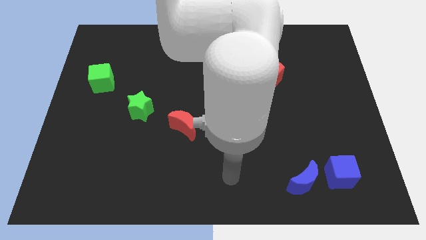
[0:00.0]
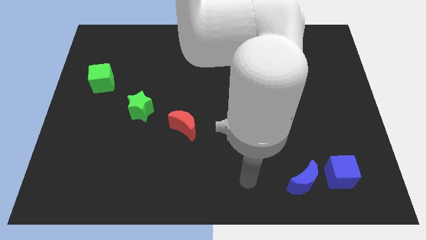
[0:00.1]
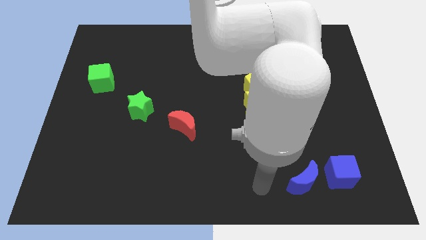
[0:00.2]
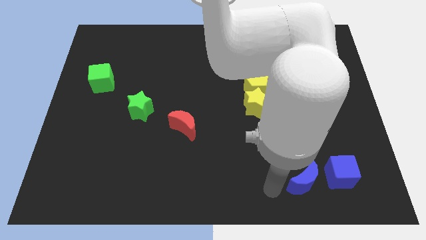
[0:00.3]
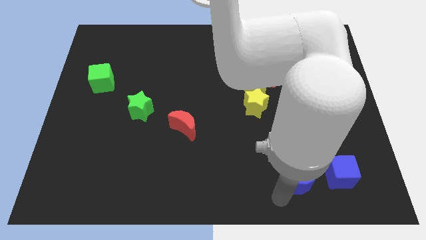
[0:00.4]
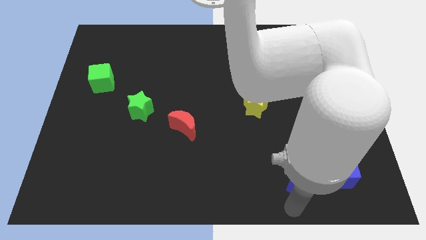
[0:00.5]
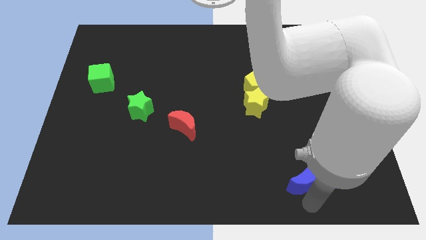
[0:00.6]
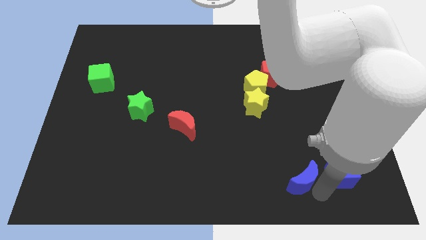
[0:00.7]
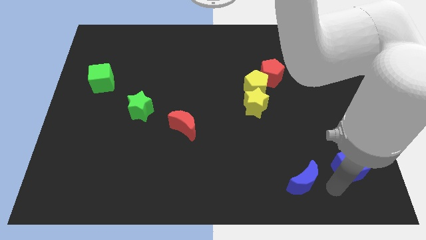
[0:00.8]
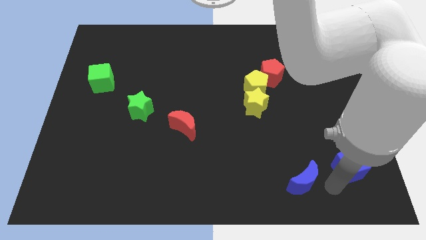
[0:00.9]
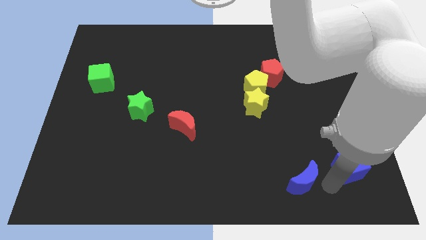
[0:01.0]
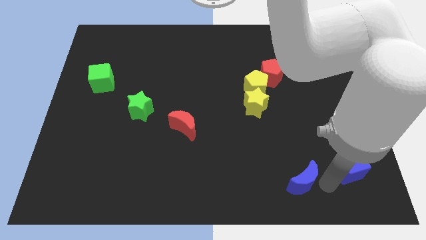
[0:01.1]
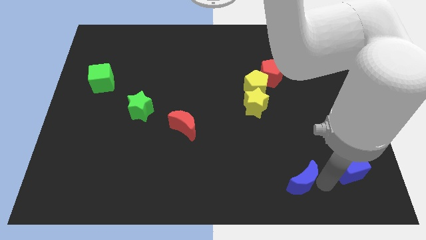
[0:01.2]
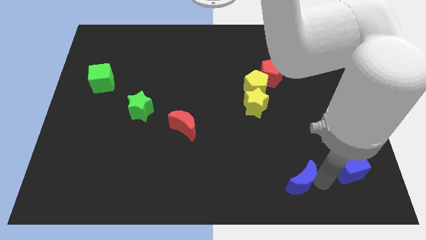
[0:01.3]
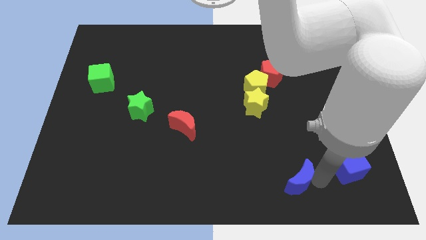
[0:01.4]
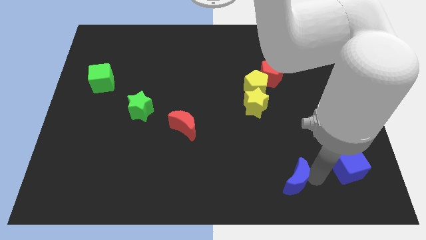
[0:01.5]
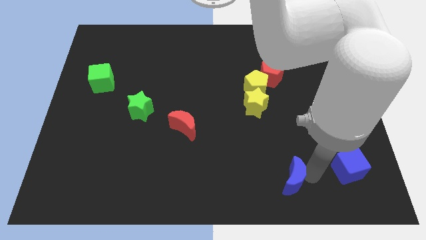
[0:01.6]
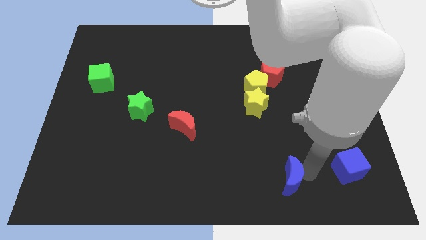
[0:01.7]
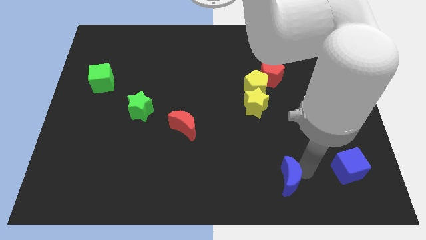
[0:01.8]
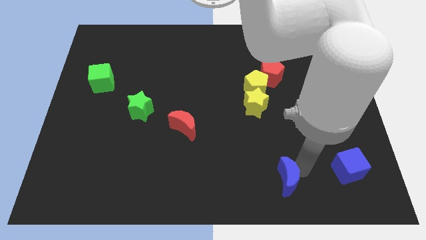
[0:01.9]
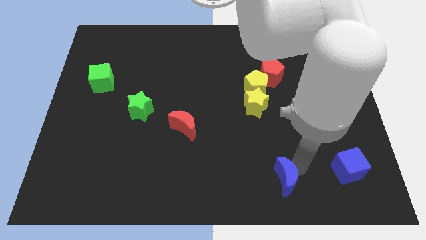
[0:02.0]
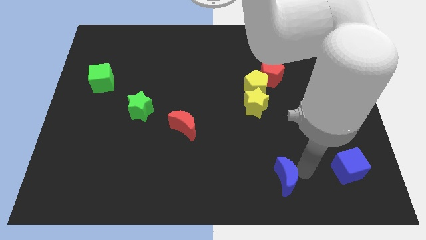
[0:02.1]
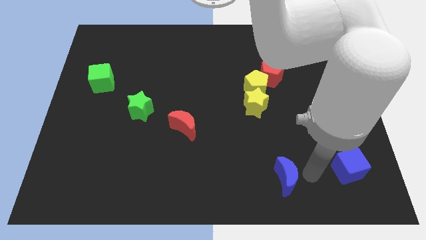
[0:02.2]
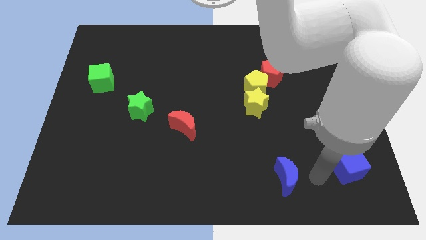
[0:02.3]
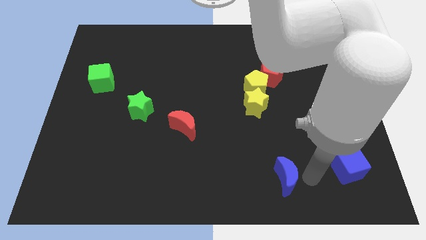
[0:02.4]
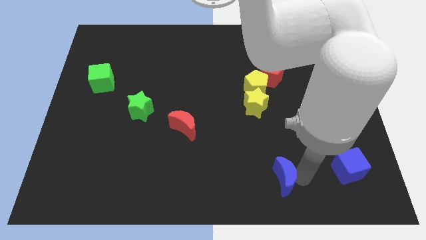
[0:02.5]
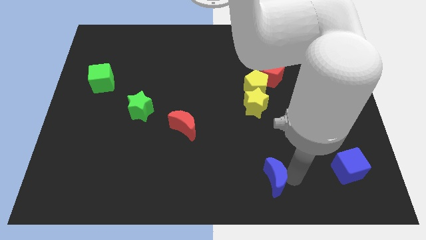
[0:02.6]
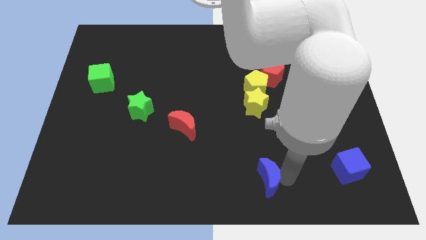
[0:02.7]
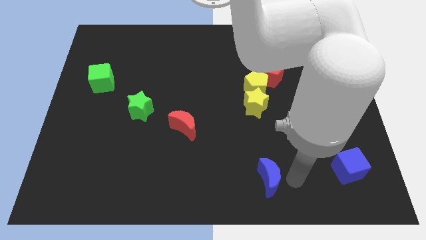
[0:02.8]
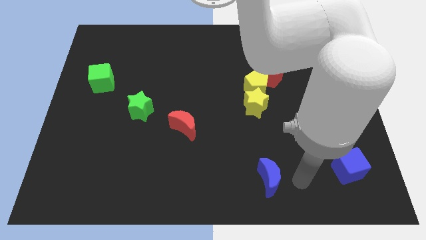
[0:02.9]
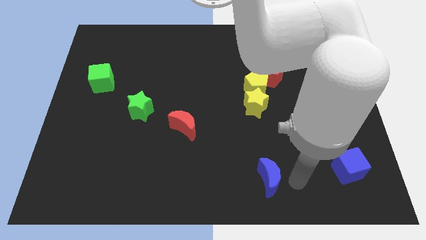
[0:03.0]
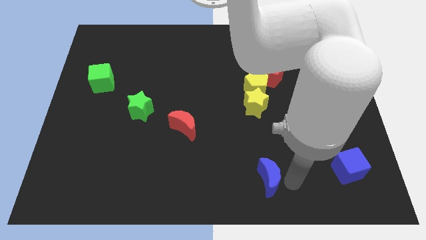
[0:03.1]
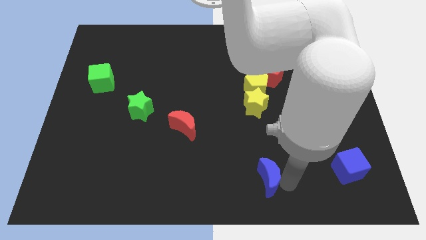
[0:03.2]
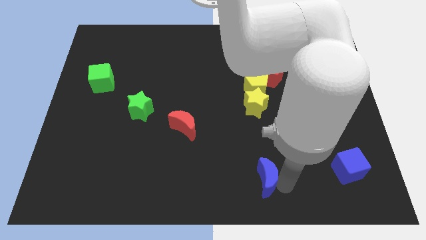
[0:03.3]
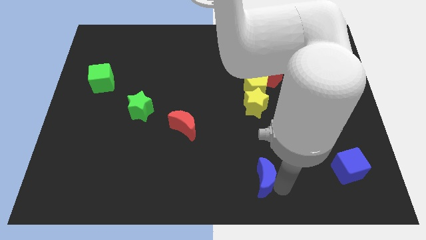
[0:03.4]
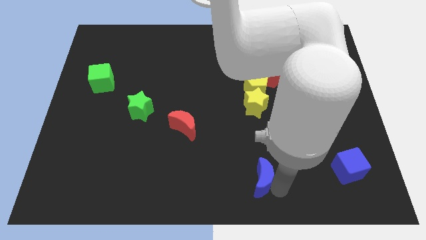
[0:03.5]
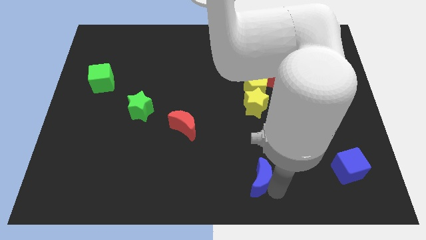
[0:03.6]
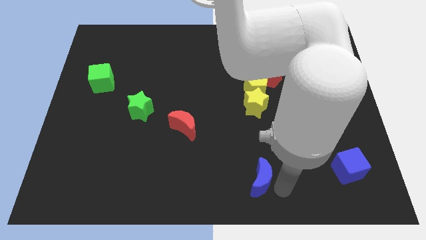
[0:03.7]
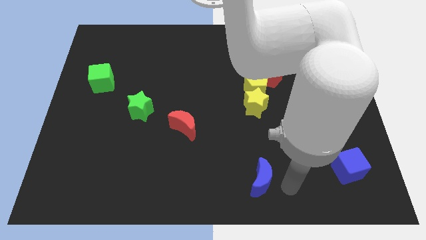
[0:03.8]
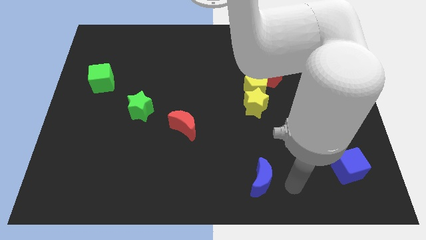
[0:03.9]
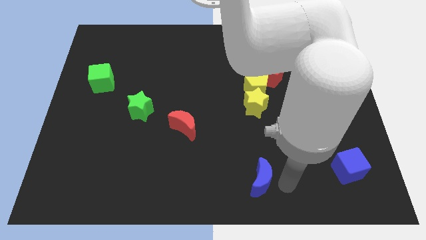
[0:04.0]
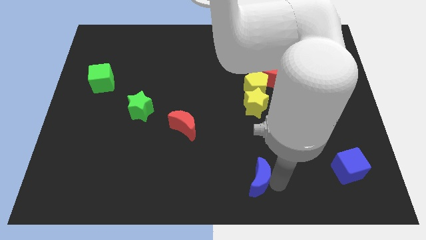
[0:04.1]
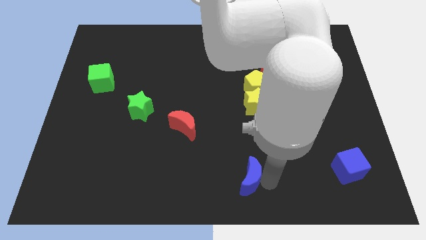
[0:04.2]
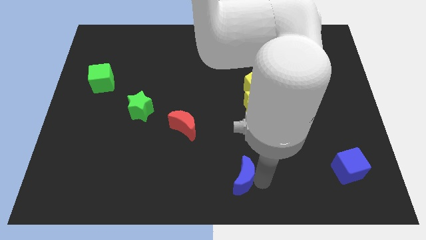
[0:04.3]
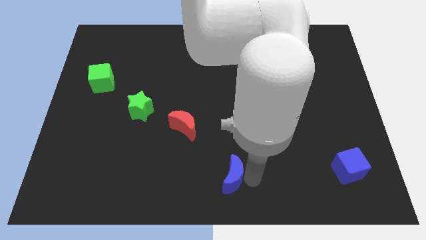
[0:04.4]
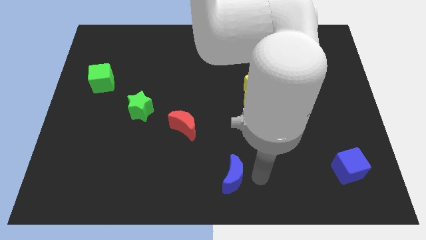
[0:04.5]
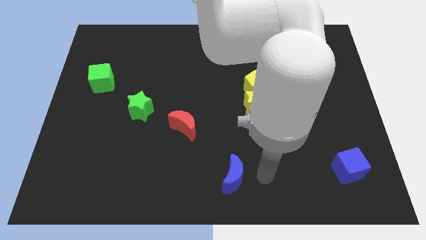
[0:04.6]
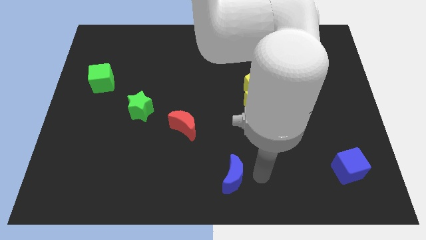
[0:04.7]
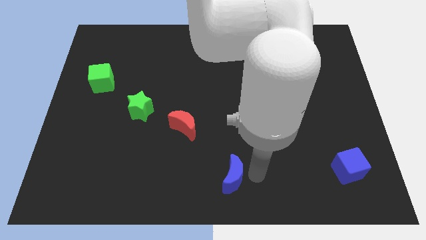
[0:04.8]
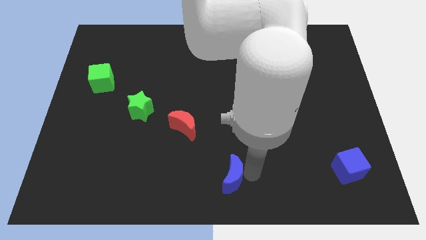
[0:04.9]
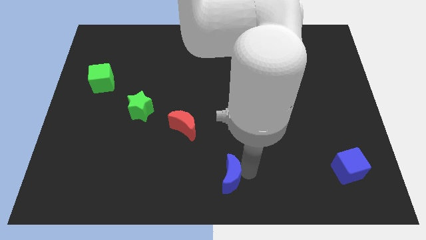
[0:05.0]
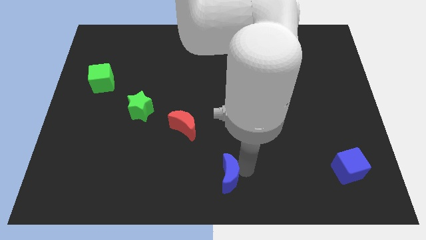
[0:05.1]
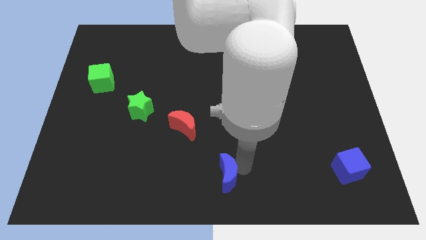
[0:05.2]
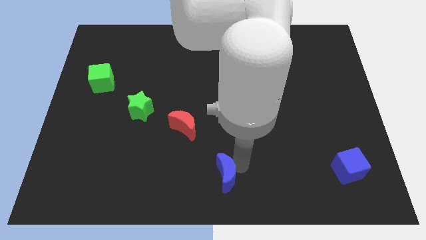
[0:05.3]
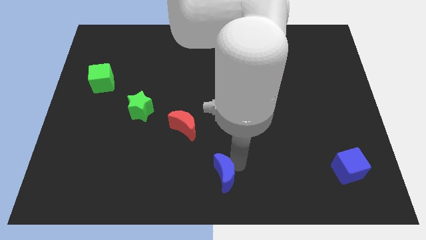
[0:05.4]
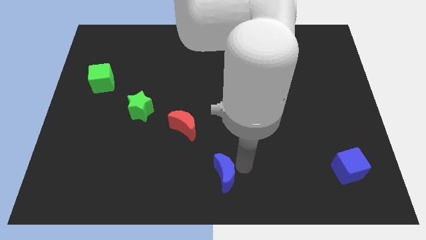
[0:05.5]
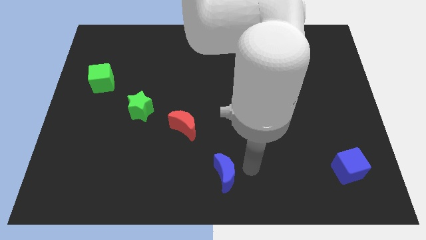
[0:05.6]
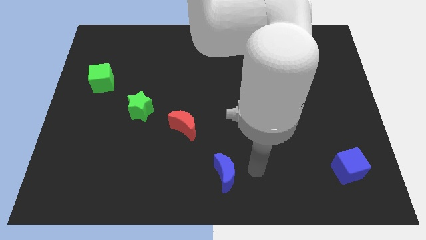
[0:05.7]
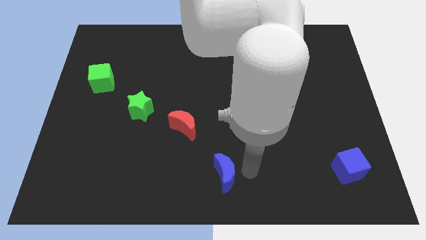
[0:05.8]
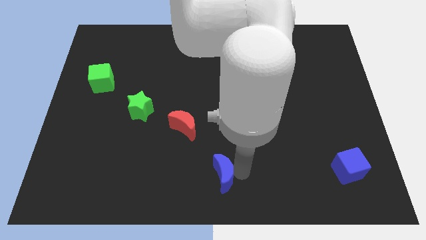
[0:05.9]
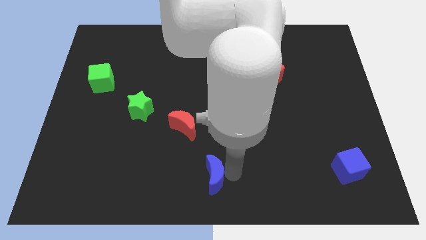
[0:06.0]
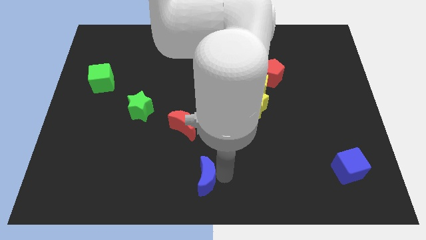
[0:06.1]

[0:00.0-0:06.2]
slide the blue moon to the left

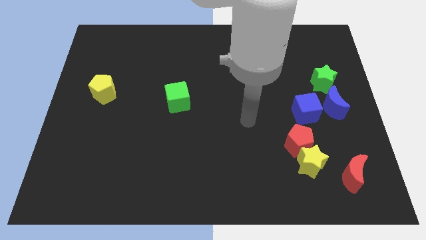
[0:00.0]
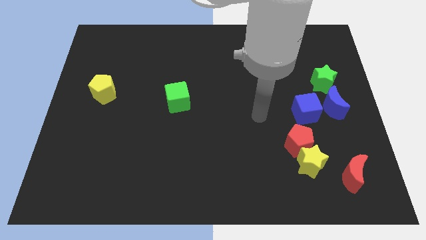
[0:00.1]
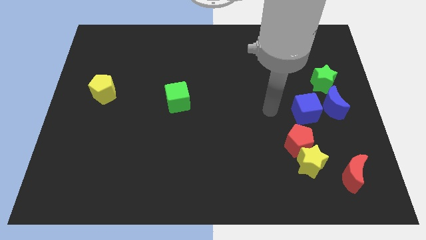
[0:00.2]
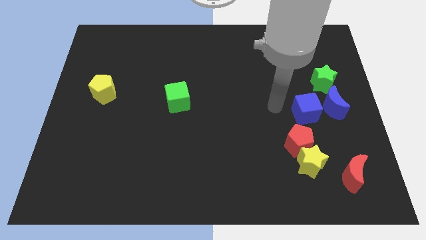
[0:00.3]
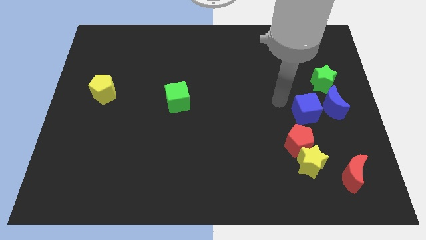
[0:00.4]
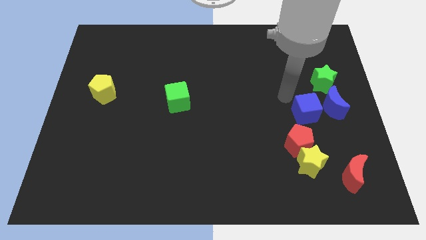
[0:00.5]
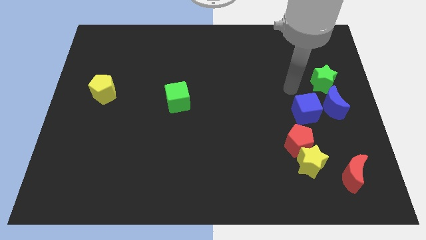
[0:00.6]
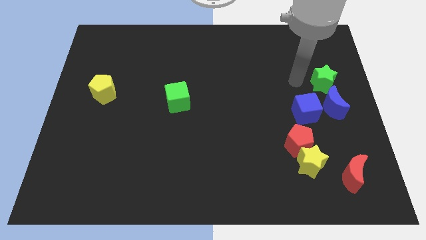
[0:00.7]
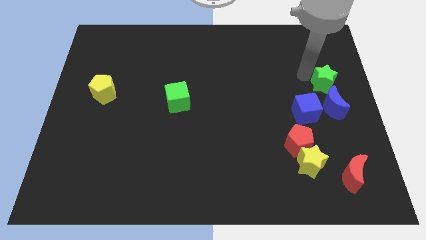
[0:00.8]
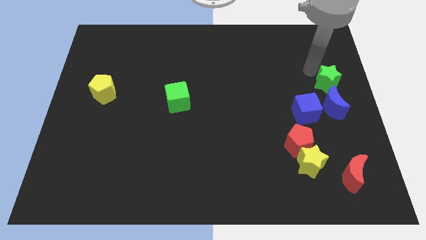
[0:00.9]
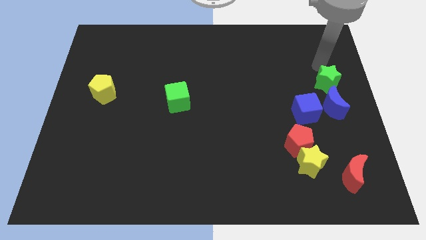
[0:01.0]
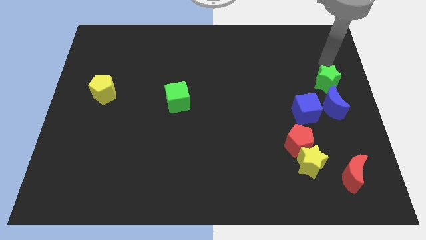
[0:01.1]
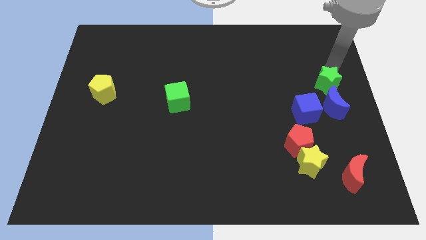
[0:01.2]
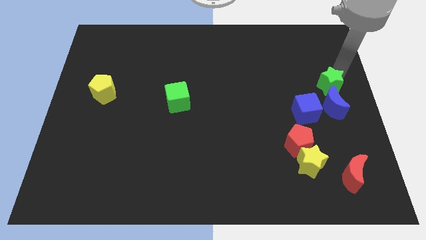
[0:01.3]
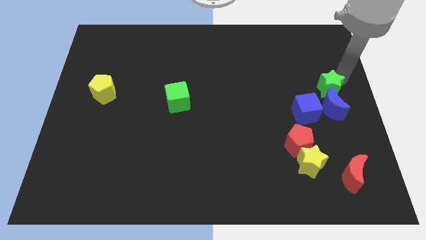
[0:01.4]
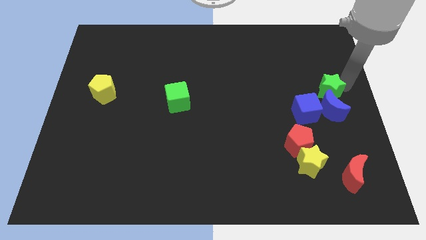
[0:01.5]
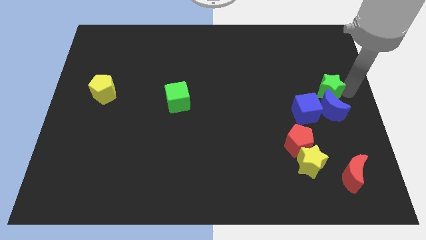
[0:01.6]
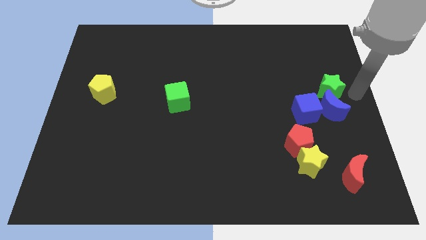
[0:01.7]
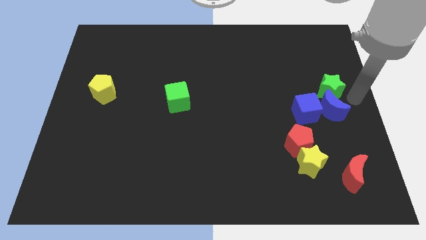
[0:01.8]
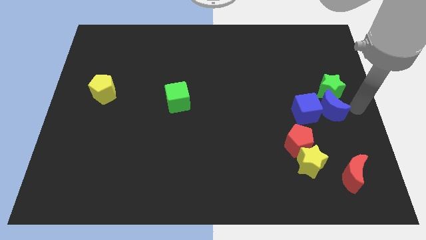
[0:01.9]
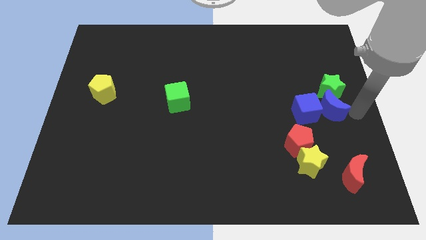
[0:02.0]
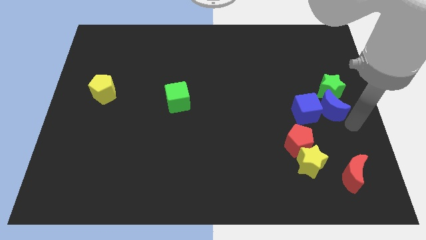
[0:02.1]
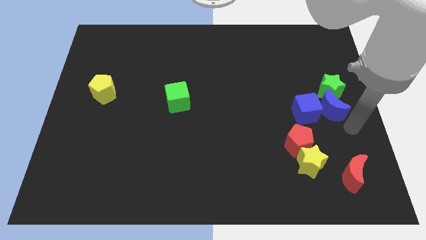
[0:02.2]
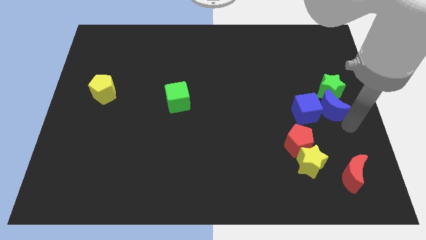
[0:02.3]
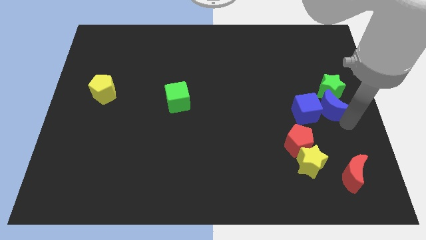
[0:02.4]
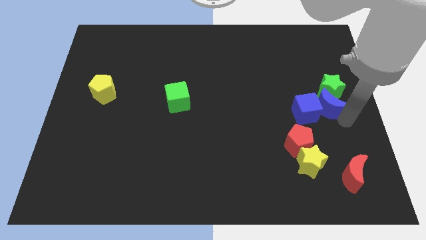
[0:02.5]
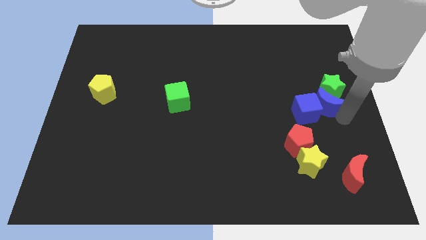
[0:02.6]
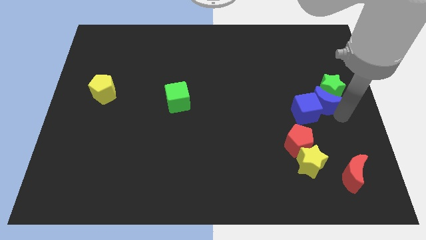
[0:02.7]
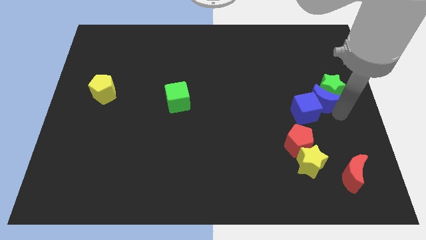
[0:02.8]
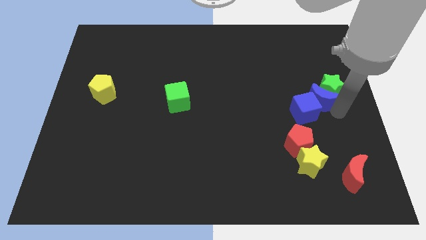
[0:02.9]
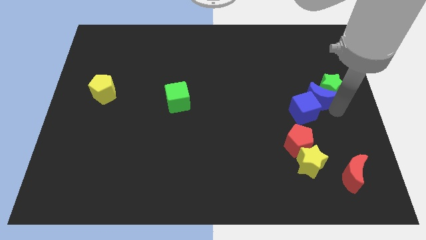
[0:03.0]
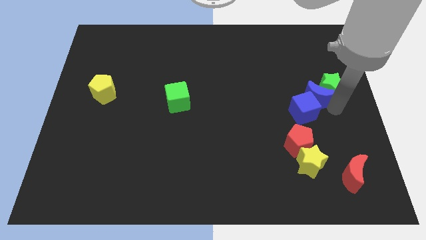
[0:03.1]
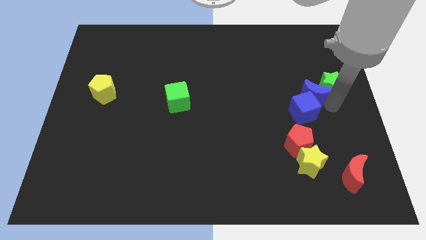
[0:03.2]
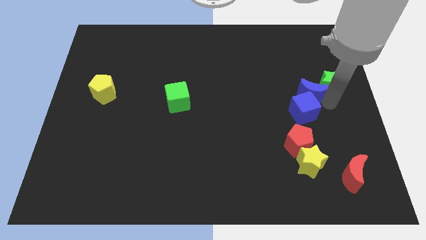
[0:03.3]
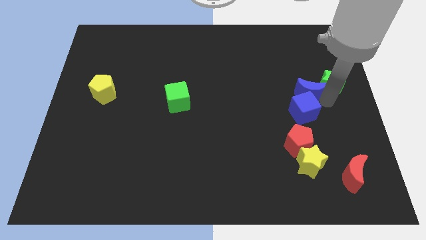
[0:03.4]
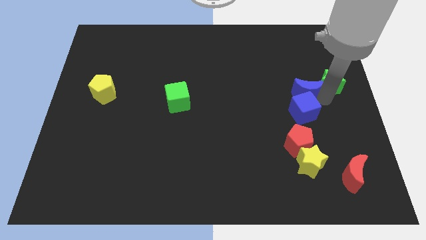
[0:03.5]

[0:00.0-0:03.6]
slightly move the blue moon diagonally upwards and left
